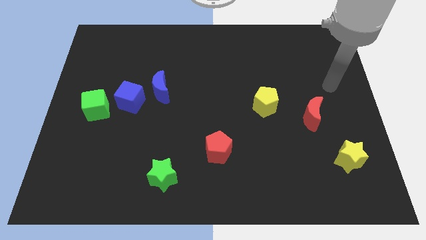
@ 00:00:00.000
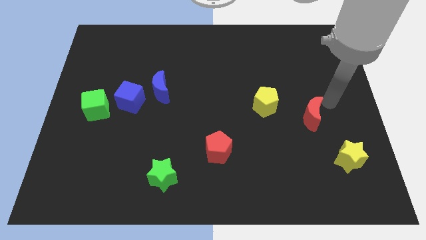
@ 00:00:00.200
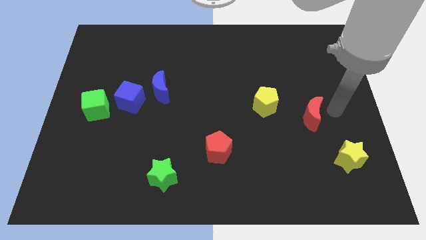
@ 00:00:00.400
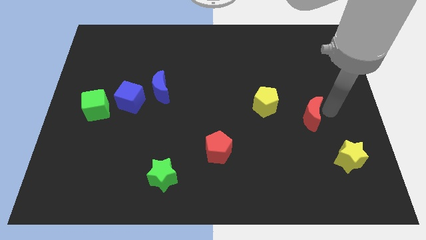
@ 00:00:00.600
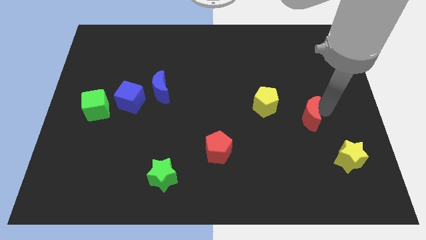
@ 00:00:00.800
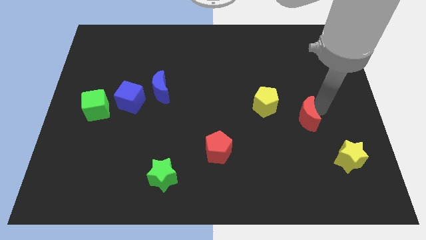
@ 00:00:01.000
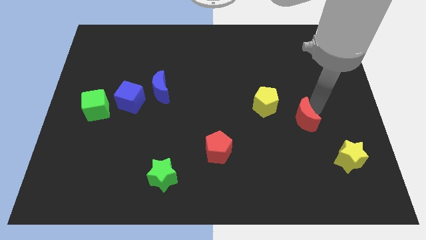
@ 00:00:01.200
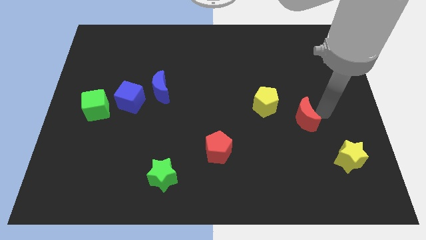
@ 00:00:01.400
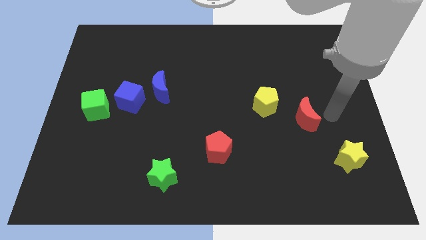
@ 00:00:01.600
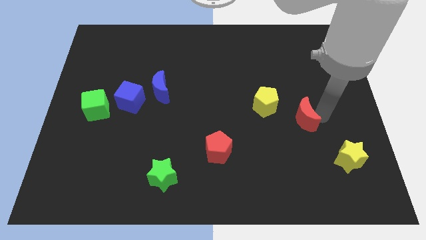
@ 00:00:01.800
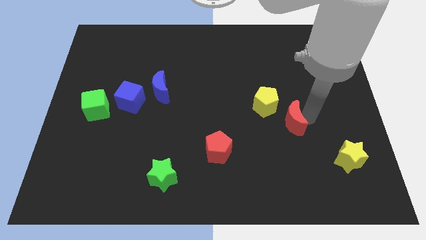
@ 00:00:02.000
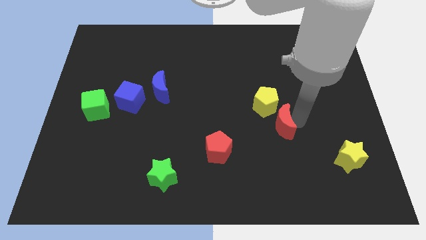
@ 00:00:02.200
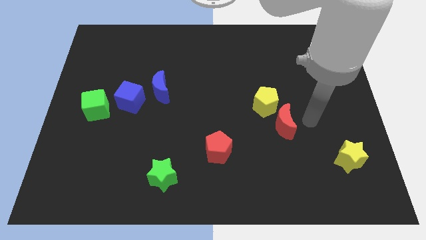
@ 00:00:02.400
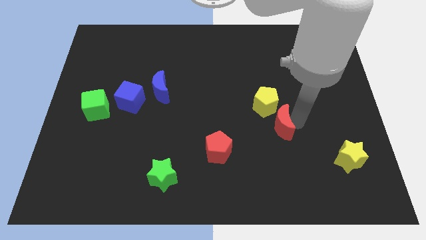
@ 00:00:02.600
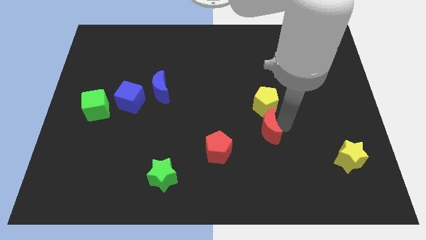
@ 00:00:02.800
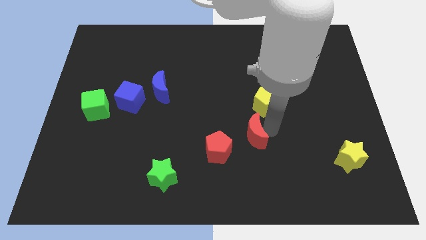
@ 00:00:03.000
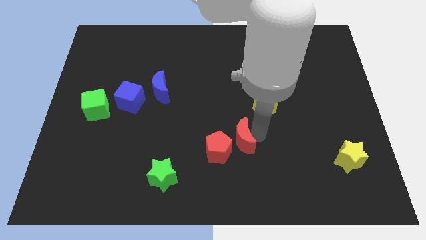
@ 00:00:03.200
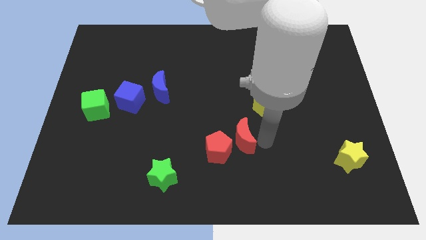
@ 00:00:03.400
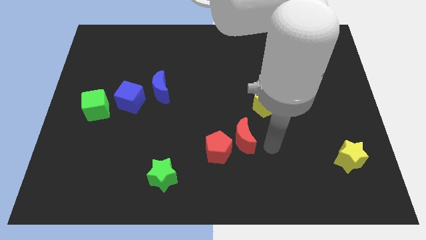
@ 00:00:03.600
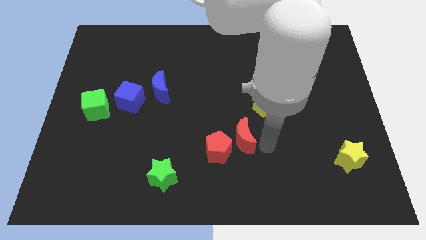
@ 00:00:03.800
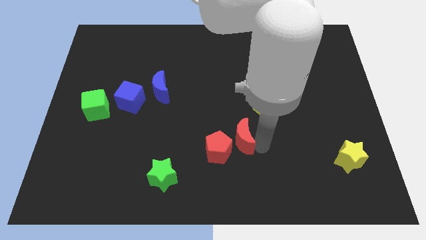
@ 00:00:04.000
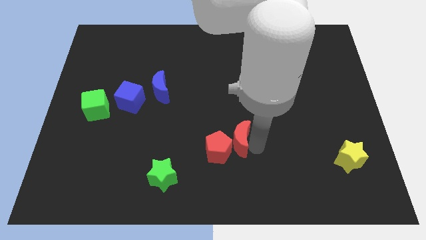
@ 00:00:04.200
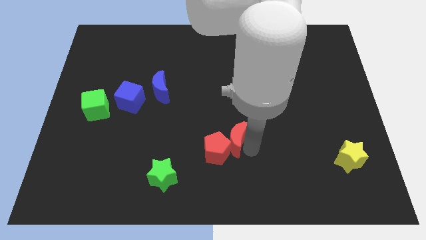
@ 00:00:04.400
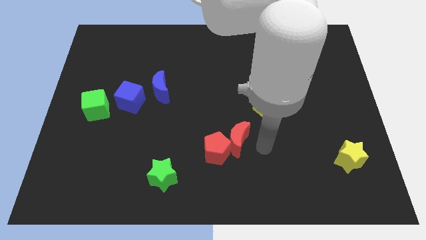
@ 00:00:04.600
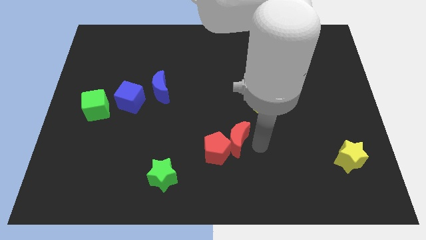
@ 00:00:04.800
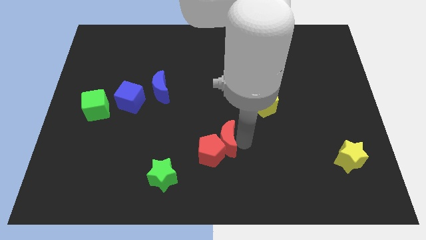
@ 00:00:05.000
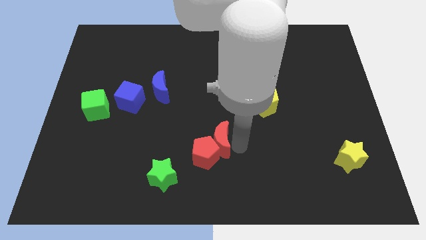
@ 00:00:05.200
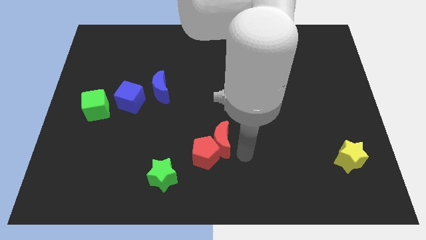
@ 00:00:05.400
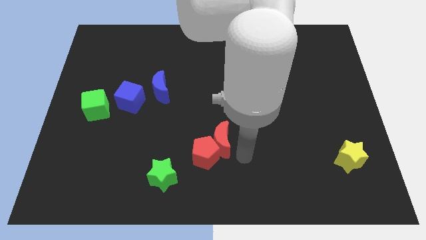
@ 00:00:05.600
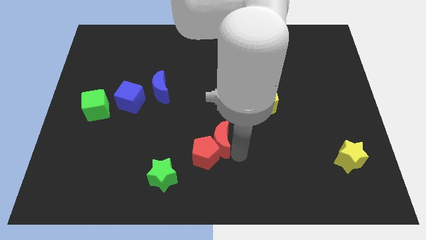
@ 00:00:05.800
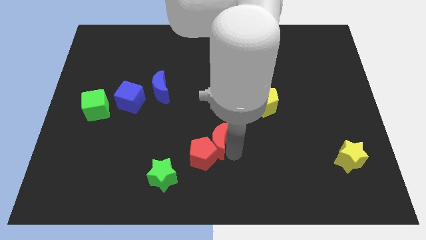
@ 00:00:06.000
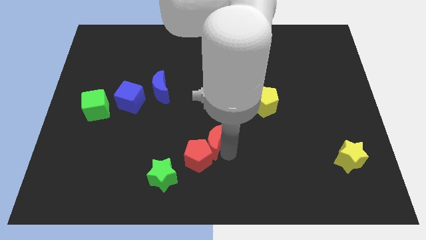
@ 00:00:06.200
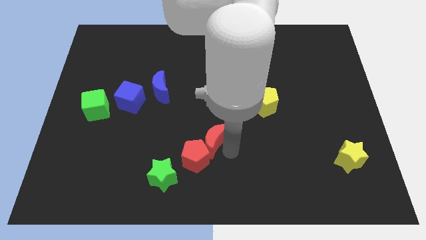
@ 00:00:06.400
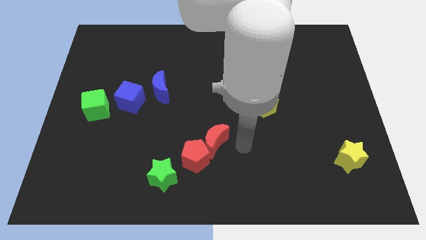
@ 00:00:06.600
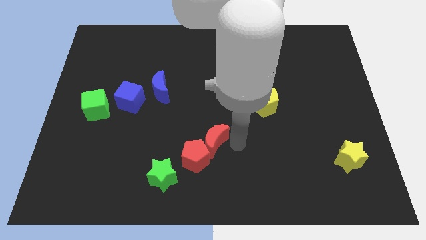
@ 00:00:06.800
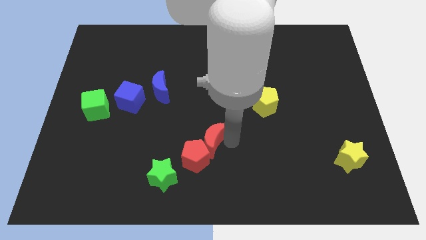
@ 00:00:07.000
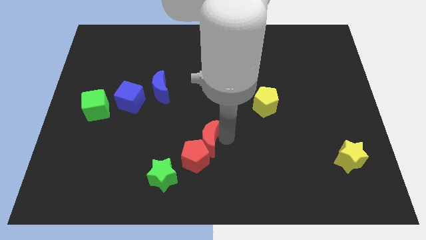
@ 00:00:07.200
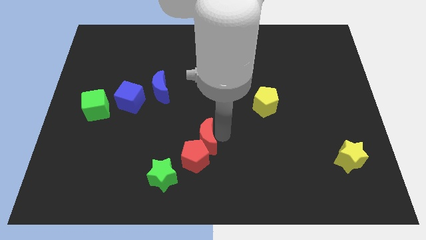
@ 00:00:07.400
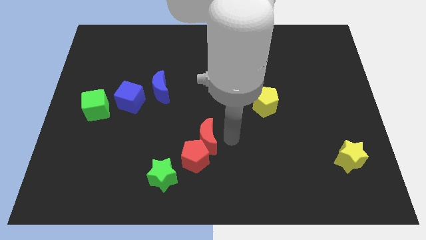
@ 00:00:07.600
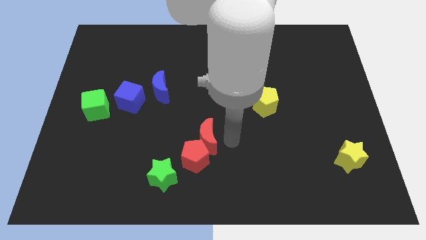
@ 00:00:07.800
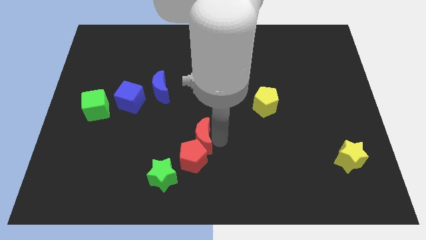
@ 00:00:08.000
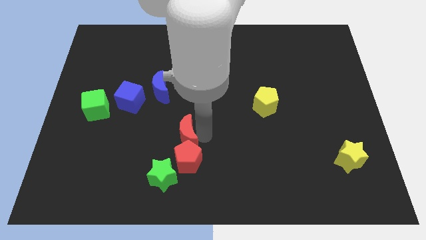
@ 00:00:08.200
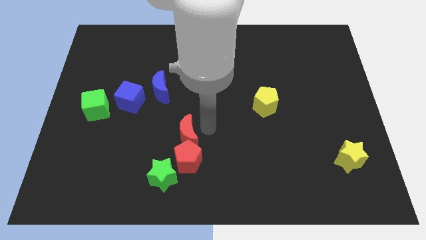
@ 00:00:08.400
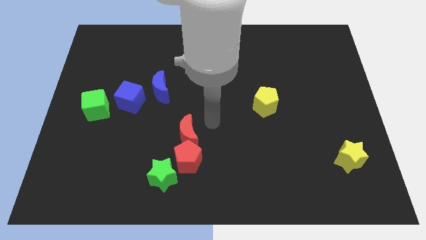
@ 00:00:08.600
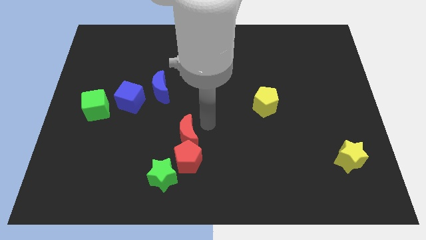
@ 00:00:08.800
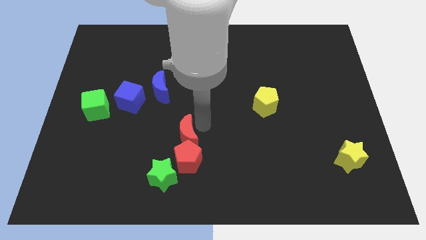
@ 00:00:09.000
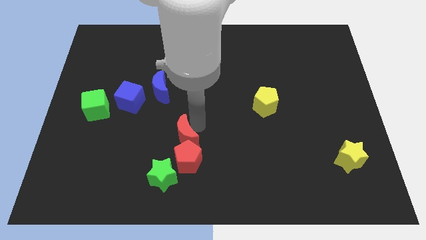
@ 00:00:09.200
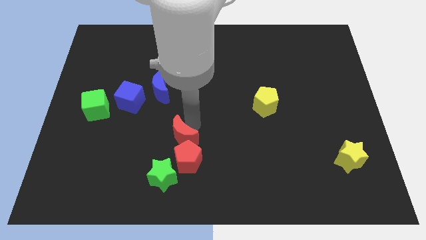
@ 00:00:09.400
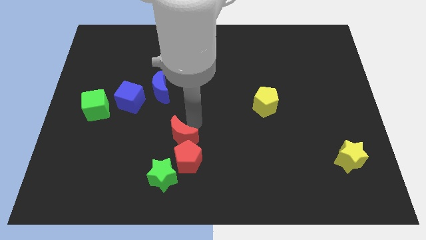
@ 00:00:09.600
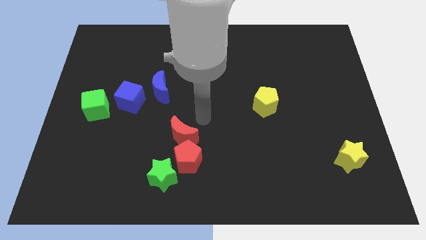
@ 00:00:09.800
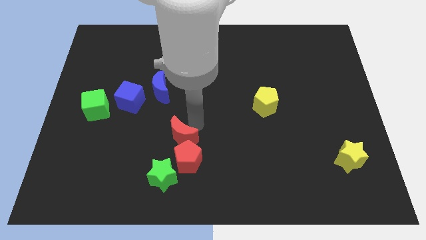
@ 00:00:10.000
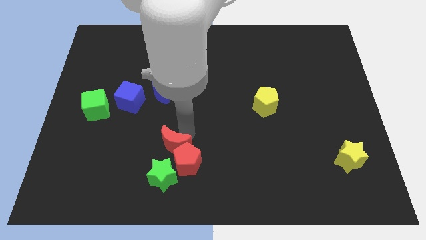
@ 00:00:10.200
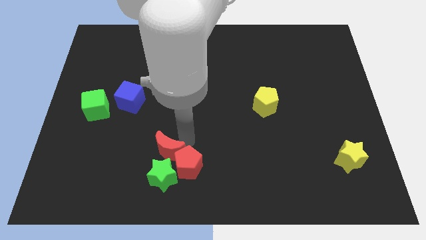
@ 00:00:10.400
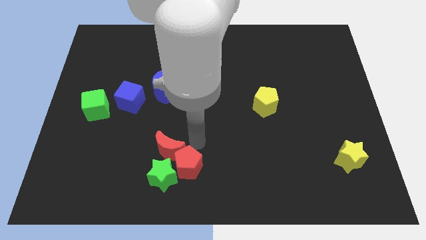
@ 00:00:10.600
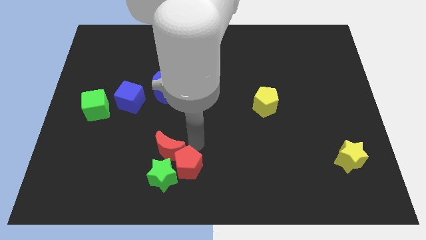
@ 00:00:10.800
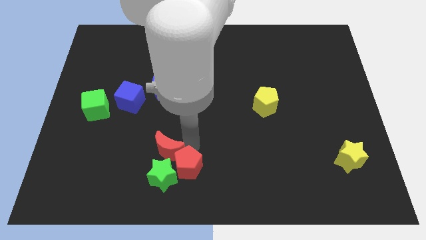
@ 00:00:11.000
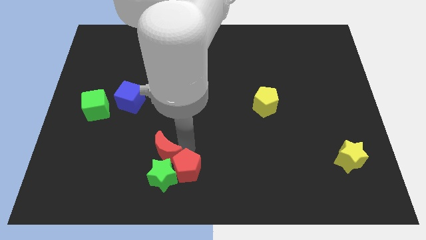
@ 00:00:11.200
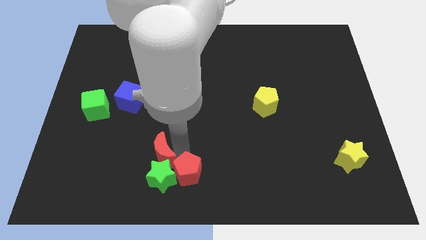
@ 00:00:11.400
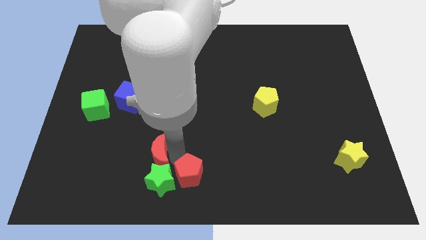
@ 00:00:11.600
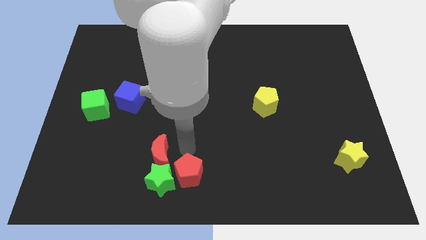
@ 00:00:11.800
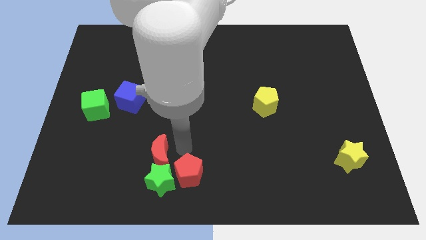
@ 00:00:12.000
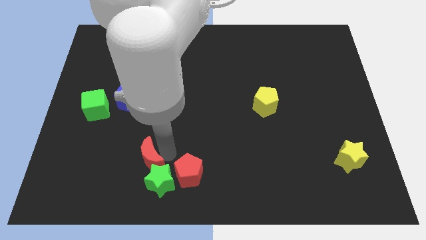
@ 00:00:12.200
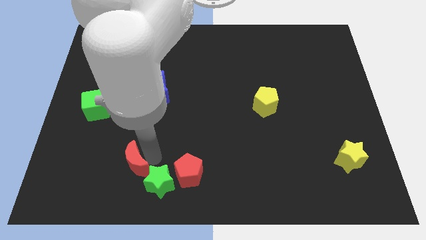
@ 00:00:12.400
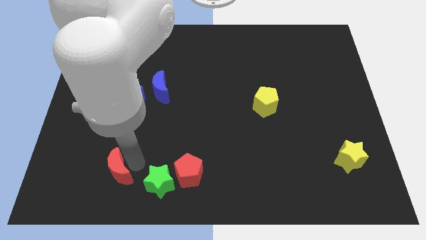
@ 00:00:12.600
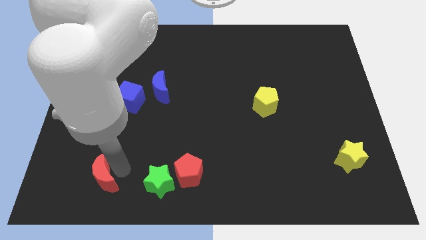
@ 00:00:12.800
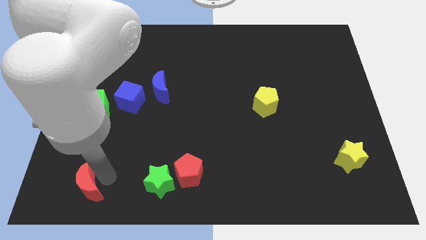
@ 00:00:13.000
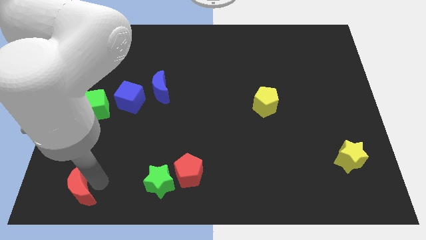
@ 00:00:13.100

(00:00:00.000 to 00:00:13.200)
push the red moon to the bottom left
